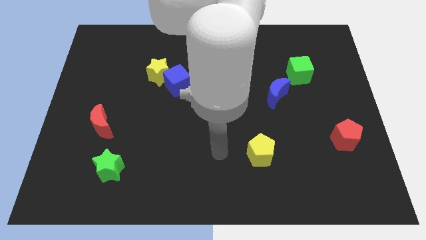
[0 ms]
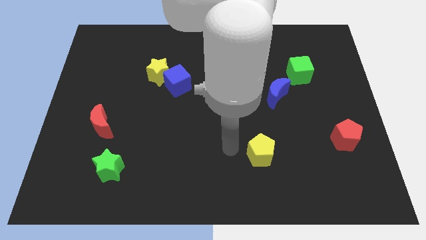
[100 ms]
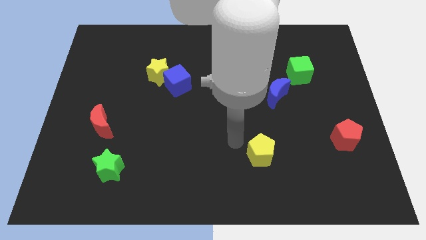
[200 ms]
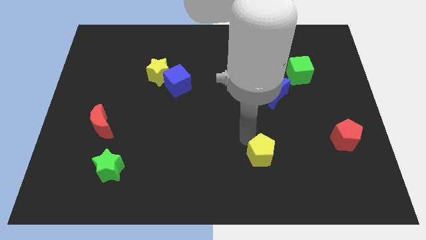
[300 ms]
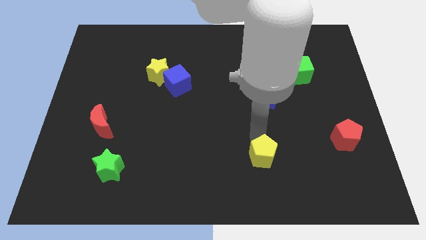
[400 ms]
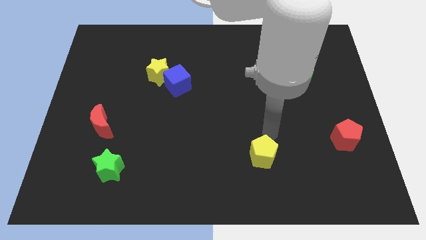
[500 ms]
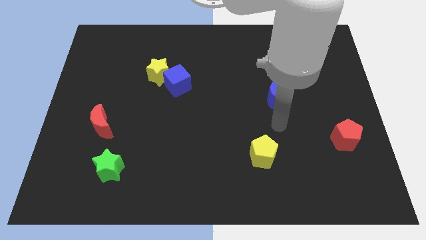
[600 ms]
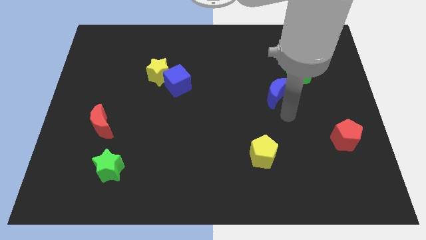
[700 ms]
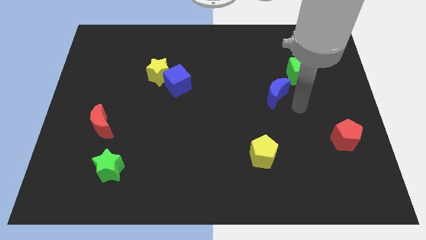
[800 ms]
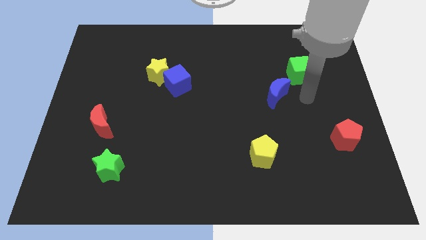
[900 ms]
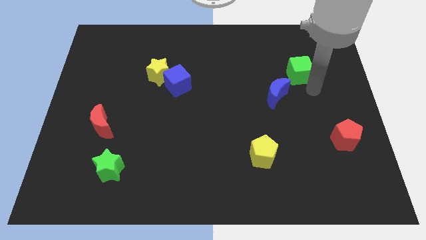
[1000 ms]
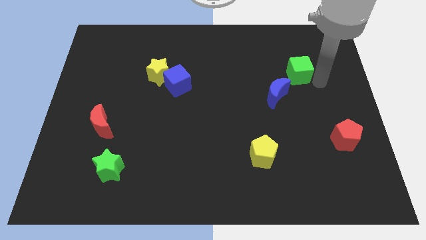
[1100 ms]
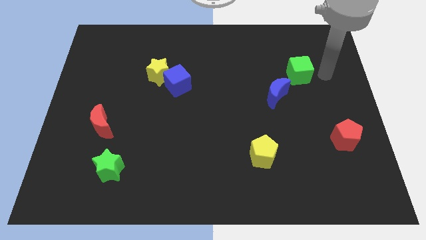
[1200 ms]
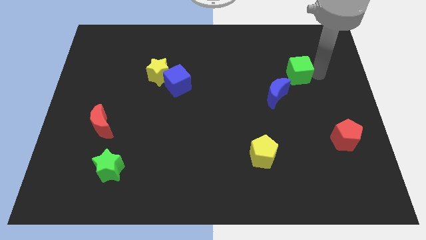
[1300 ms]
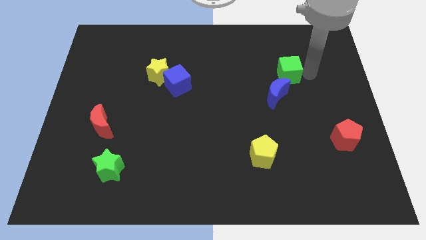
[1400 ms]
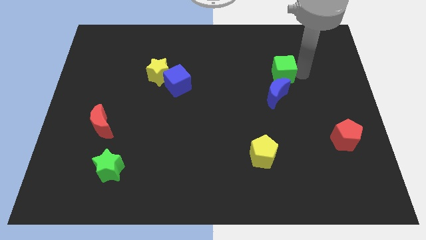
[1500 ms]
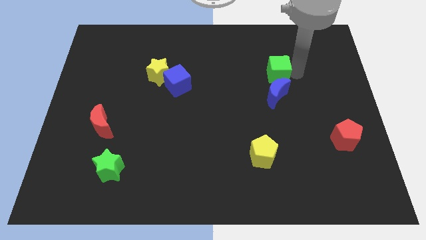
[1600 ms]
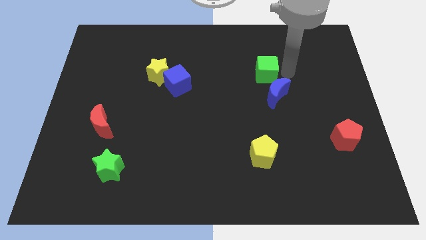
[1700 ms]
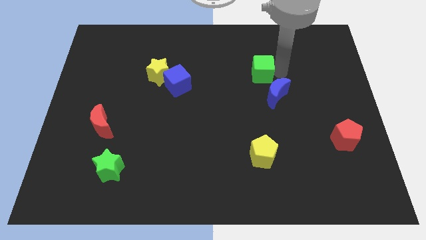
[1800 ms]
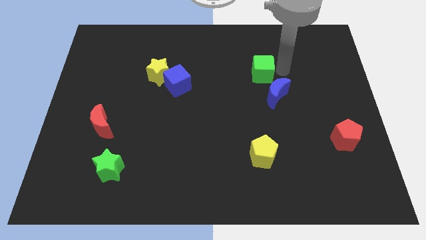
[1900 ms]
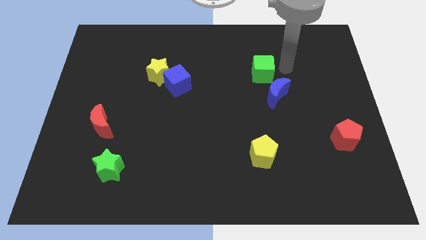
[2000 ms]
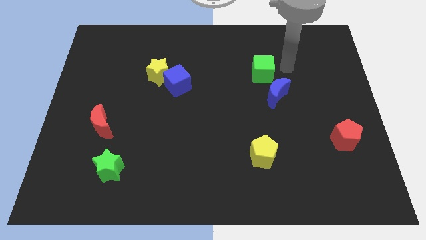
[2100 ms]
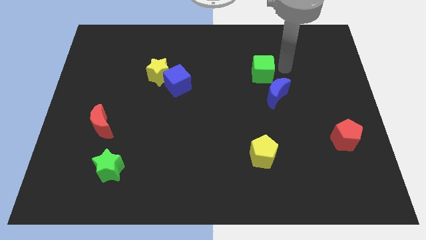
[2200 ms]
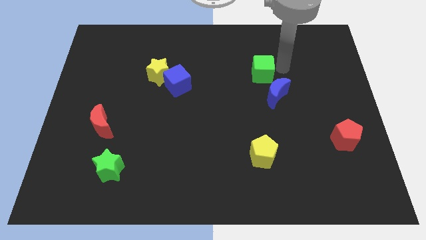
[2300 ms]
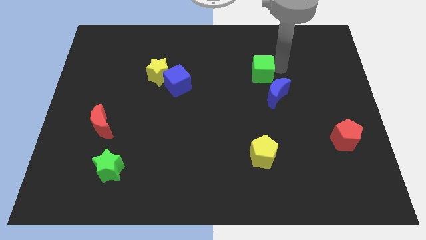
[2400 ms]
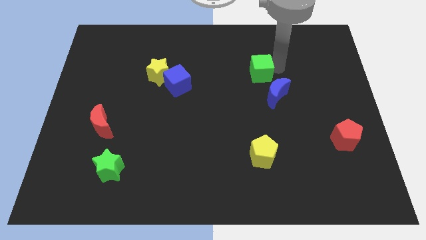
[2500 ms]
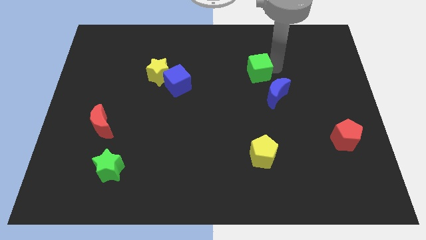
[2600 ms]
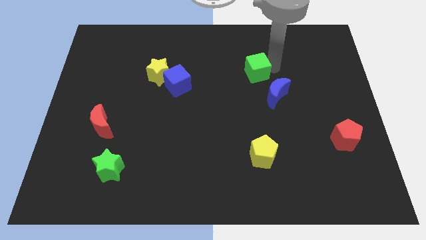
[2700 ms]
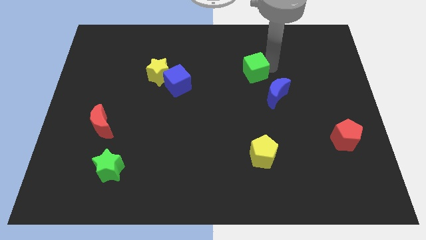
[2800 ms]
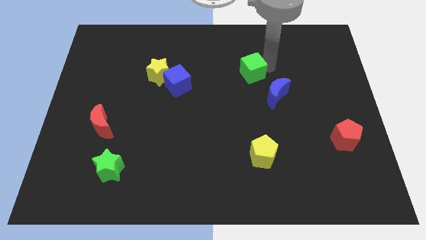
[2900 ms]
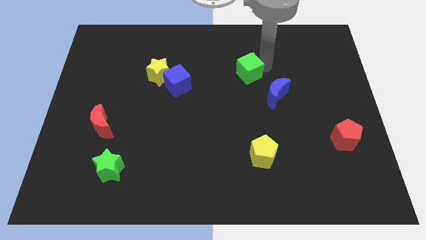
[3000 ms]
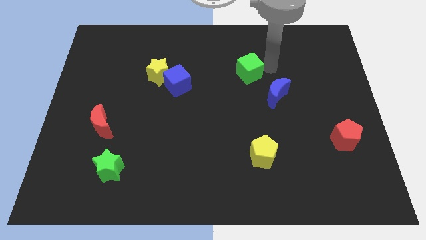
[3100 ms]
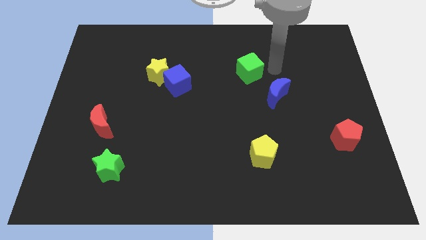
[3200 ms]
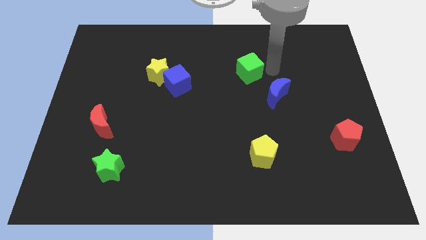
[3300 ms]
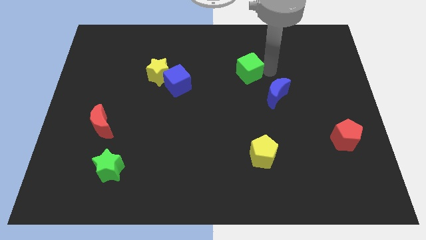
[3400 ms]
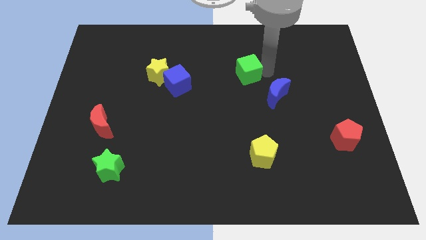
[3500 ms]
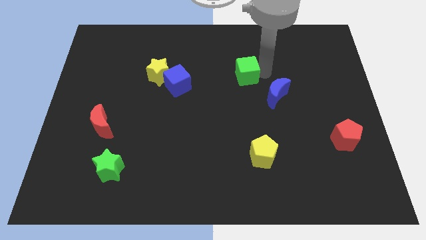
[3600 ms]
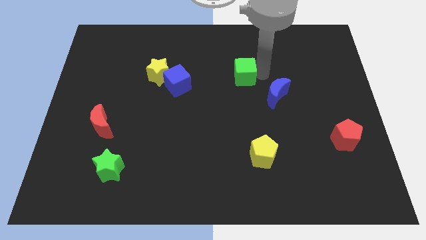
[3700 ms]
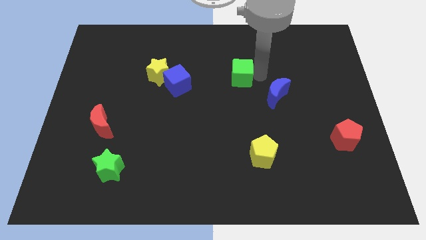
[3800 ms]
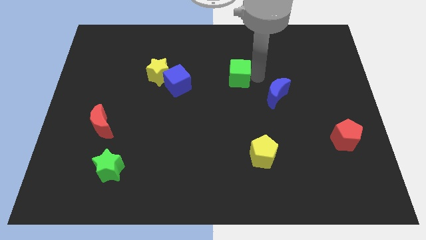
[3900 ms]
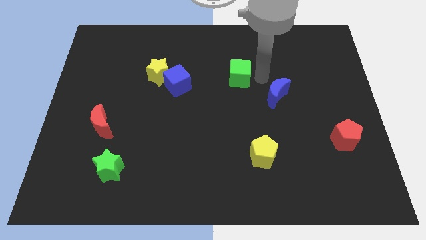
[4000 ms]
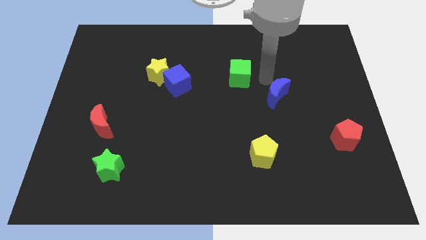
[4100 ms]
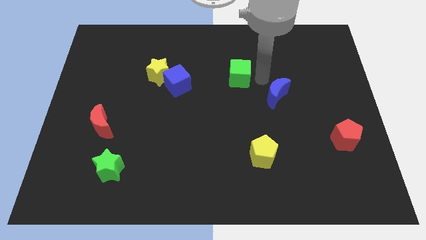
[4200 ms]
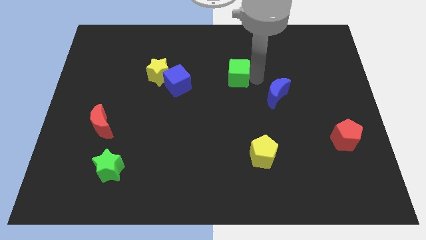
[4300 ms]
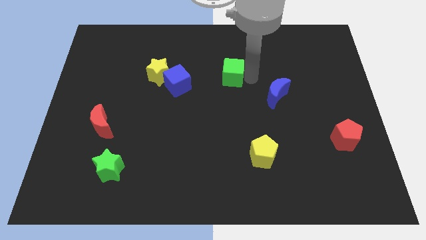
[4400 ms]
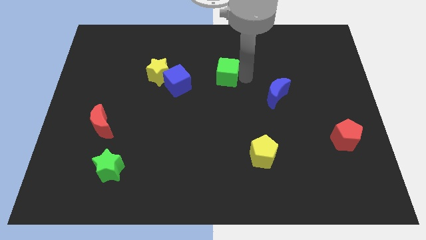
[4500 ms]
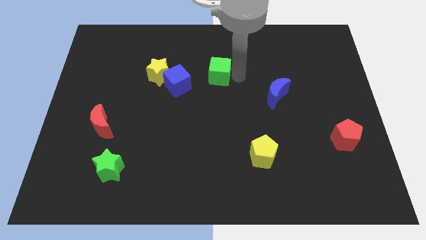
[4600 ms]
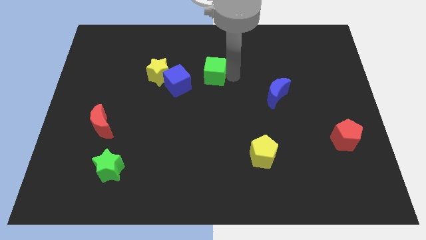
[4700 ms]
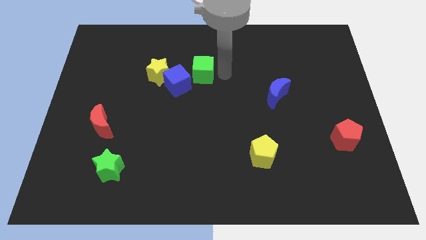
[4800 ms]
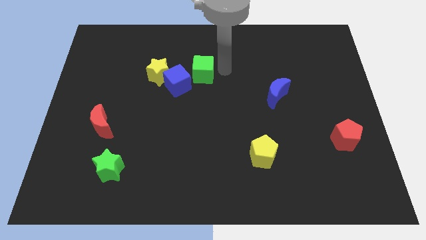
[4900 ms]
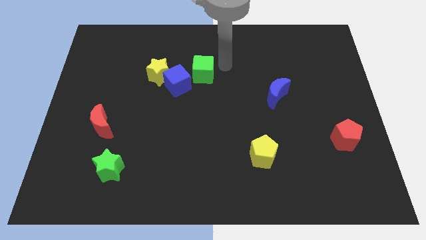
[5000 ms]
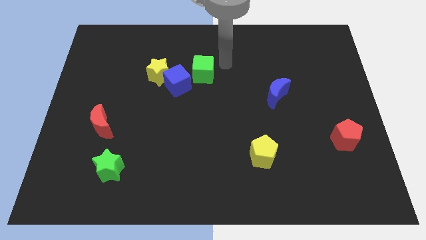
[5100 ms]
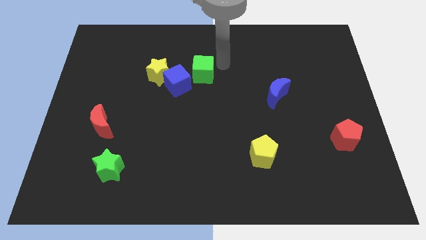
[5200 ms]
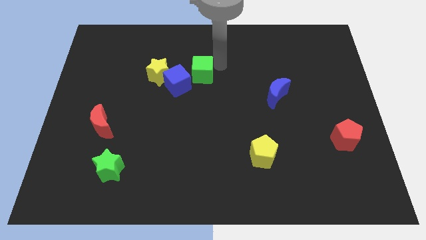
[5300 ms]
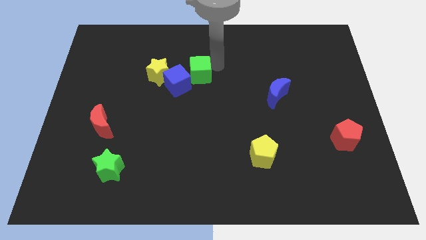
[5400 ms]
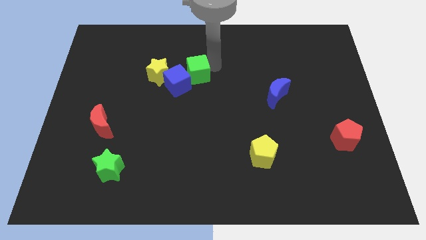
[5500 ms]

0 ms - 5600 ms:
push the green cube close to the blue cube

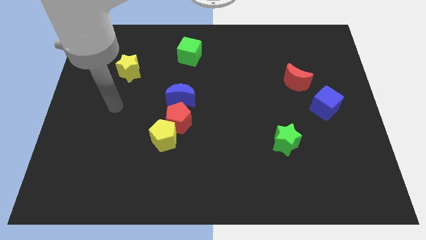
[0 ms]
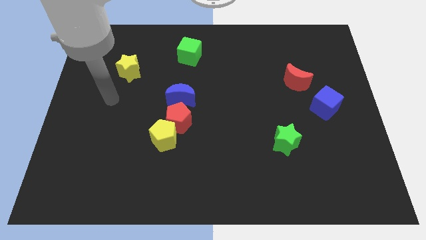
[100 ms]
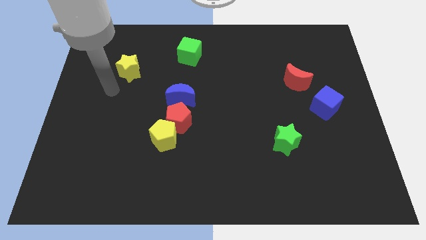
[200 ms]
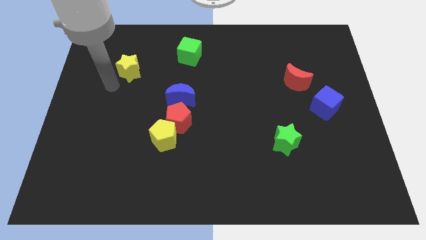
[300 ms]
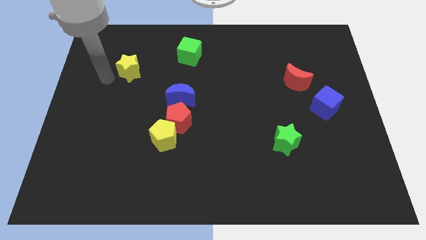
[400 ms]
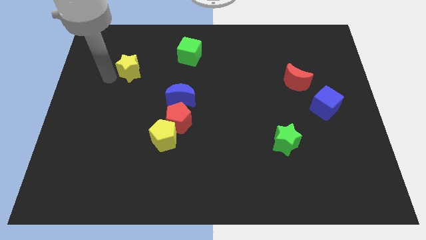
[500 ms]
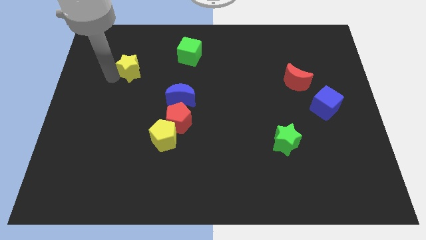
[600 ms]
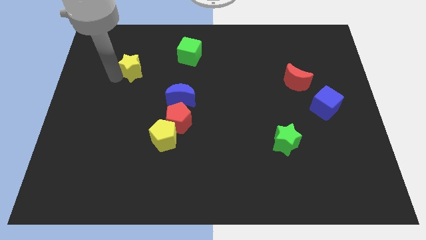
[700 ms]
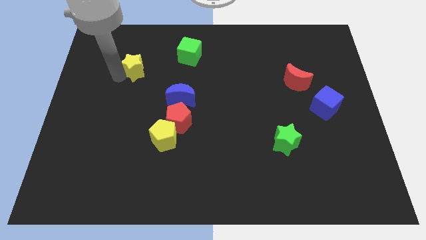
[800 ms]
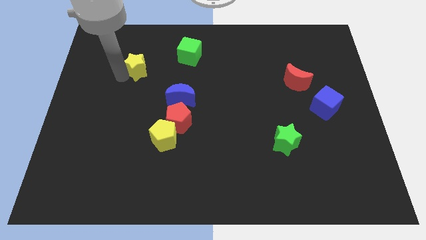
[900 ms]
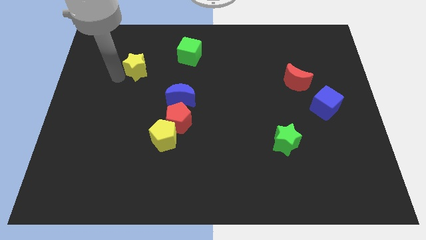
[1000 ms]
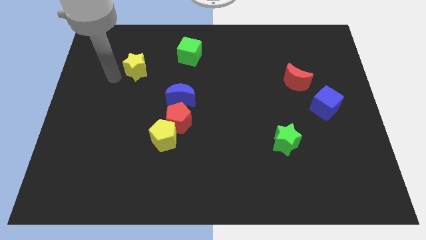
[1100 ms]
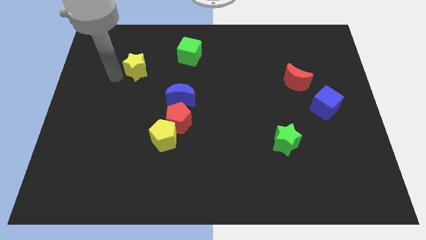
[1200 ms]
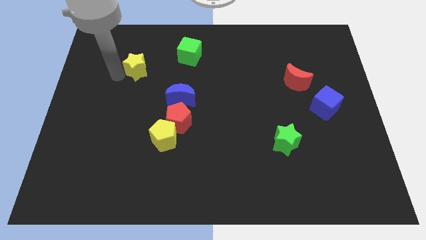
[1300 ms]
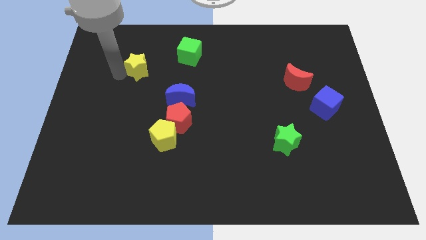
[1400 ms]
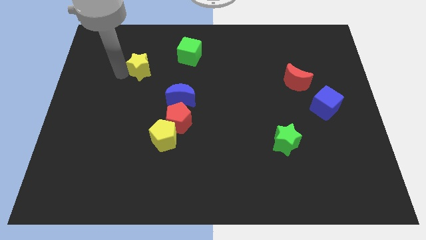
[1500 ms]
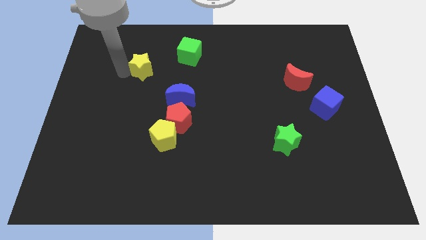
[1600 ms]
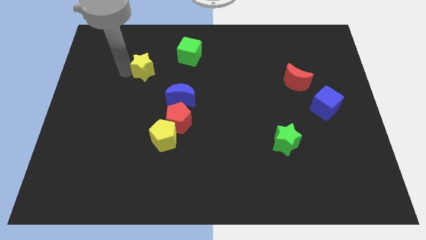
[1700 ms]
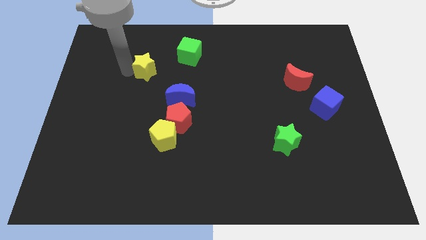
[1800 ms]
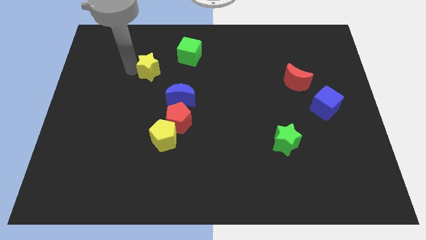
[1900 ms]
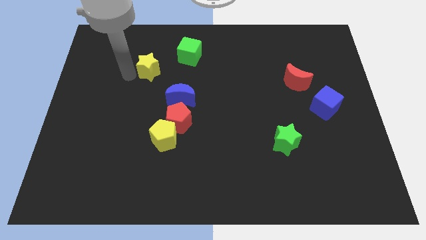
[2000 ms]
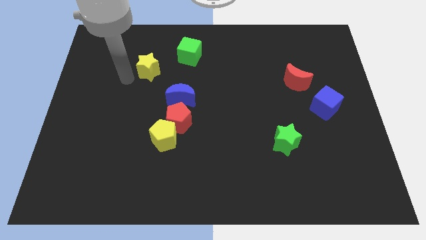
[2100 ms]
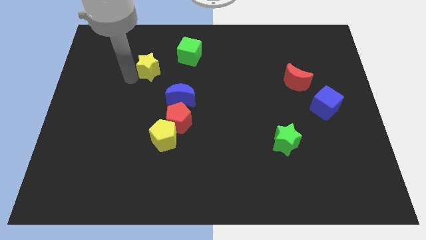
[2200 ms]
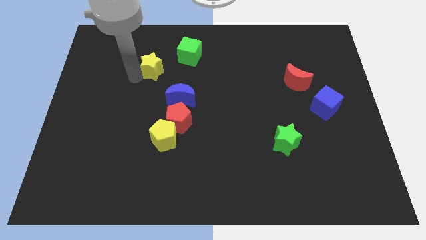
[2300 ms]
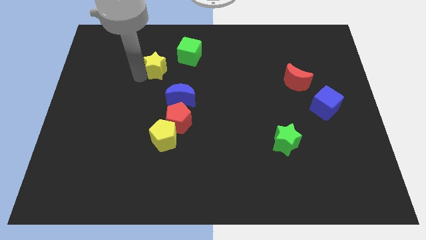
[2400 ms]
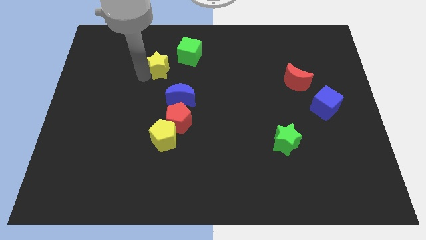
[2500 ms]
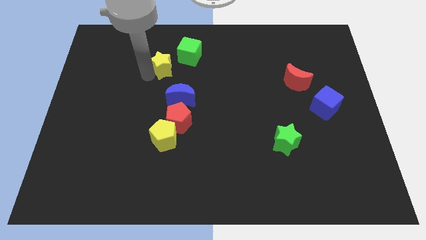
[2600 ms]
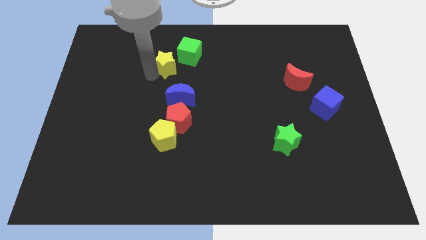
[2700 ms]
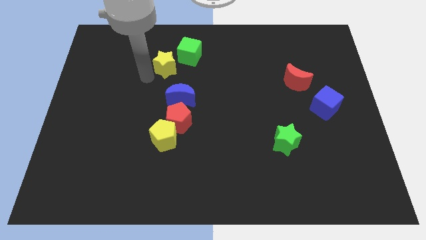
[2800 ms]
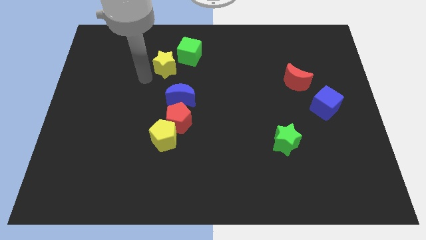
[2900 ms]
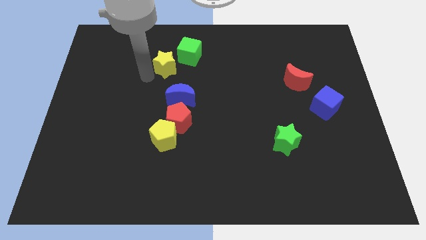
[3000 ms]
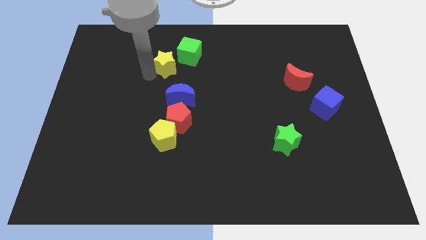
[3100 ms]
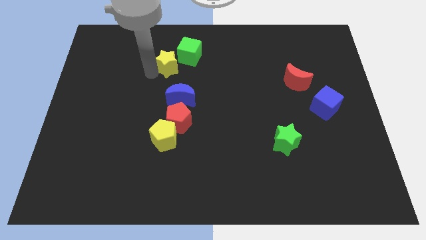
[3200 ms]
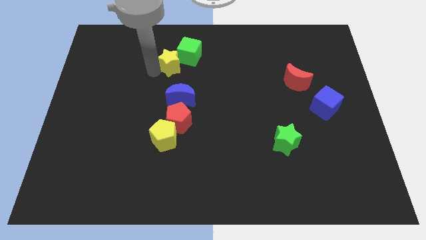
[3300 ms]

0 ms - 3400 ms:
push the yellow star next to the green cube
